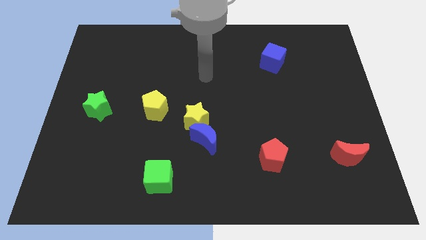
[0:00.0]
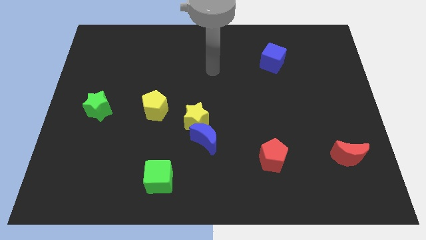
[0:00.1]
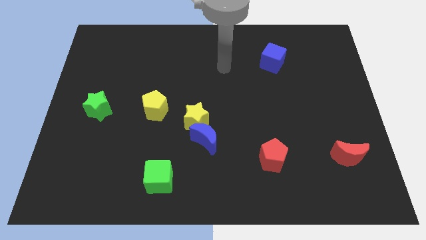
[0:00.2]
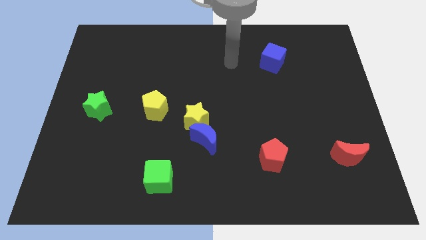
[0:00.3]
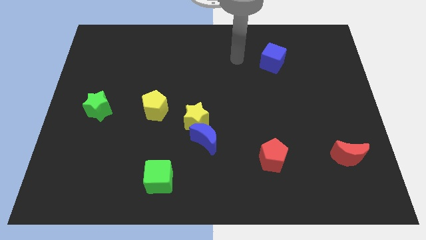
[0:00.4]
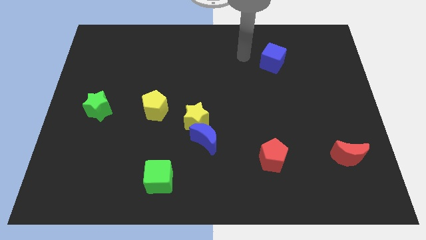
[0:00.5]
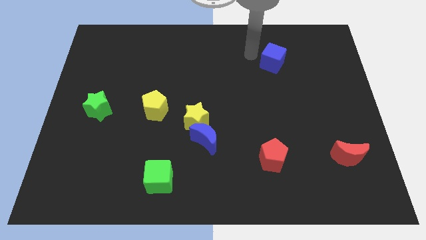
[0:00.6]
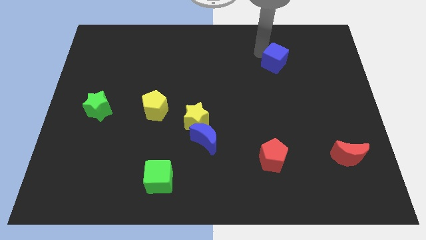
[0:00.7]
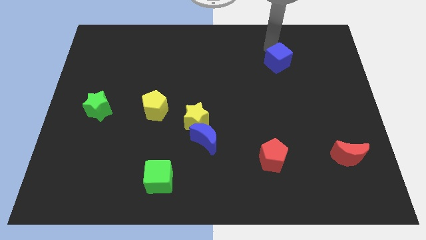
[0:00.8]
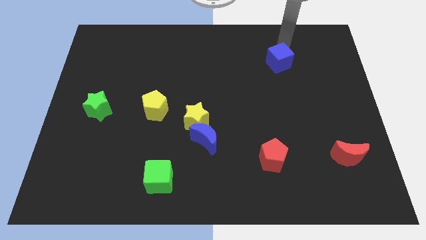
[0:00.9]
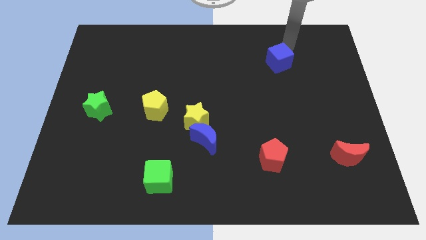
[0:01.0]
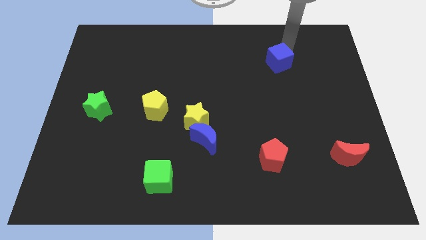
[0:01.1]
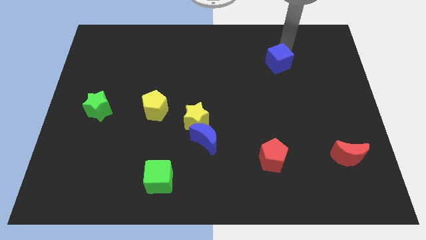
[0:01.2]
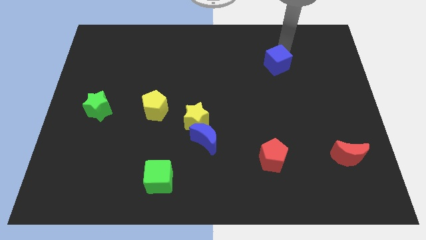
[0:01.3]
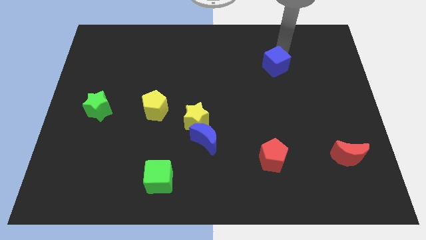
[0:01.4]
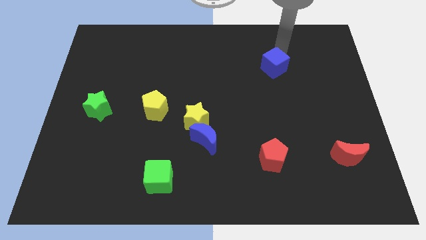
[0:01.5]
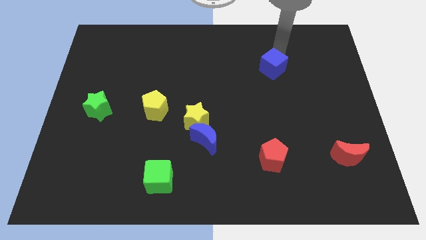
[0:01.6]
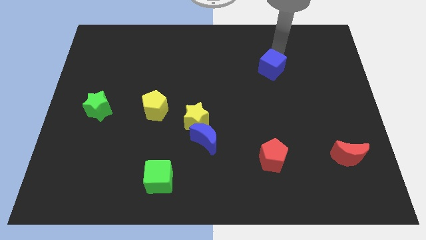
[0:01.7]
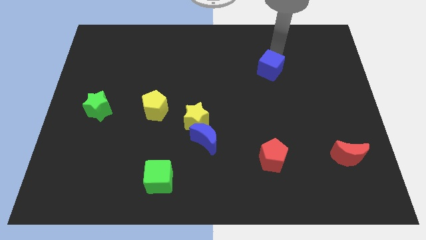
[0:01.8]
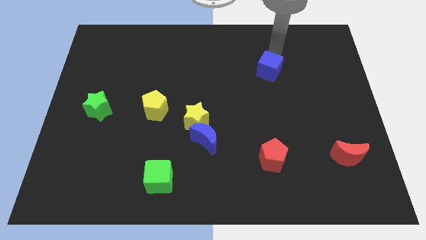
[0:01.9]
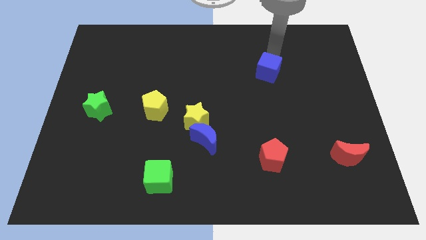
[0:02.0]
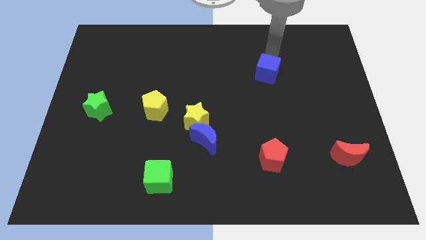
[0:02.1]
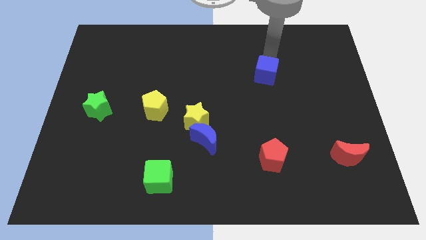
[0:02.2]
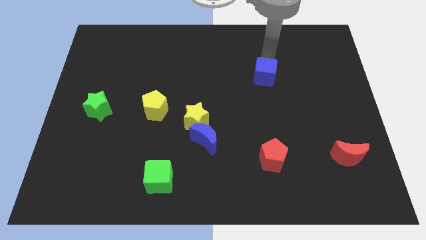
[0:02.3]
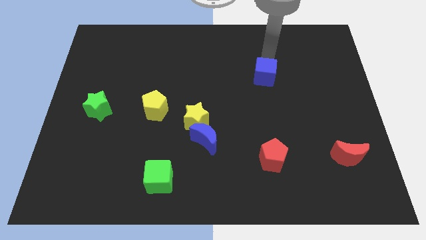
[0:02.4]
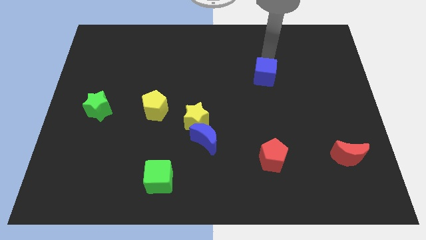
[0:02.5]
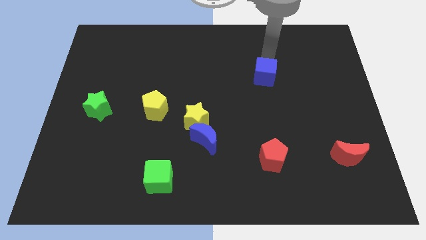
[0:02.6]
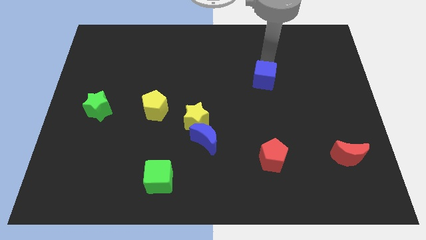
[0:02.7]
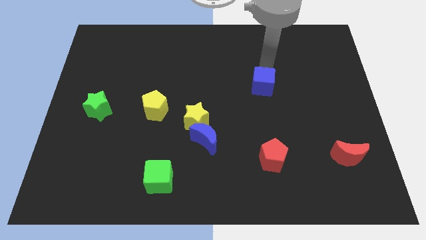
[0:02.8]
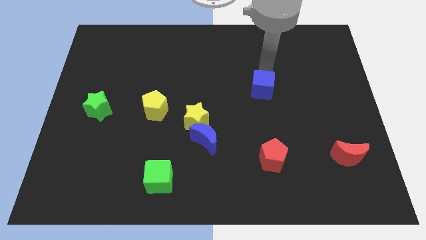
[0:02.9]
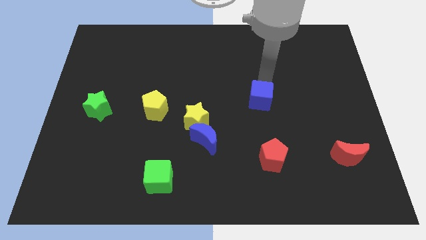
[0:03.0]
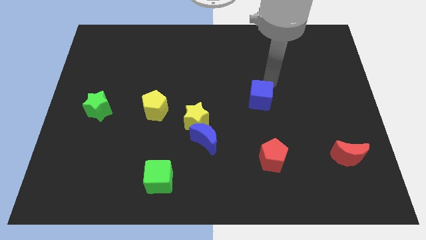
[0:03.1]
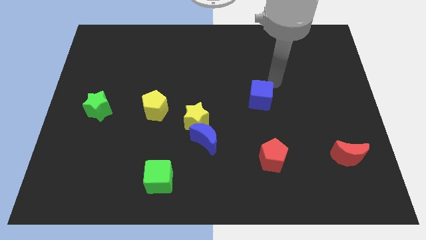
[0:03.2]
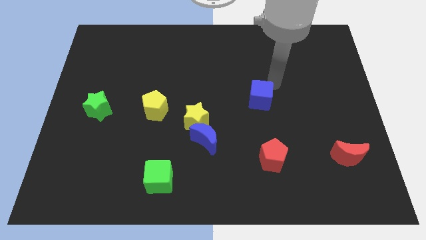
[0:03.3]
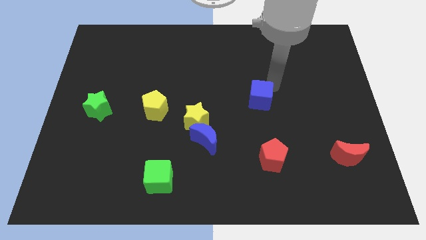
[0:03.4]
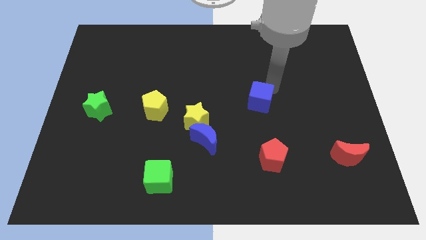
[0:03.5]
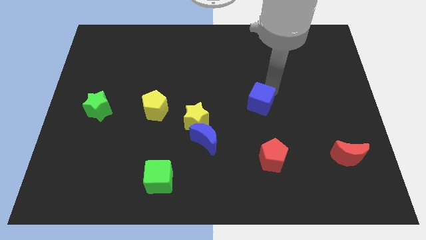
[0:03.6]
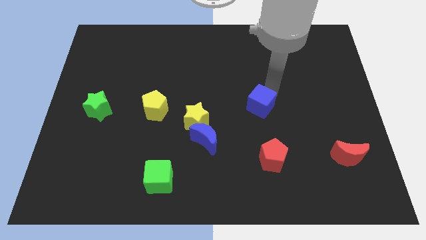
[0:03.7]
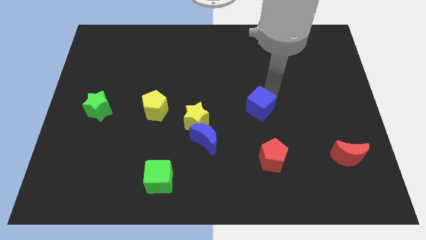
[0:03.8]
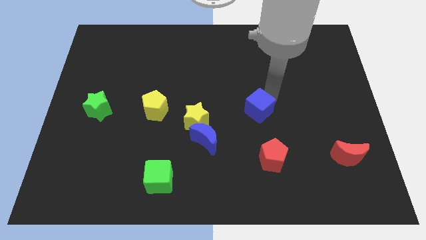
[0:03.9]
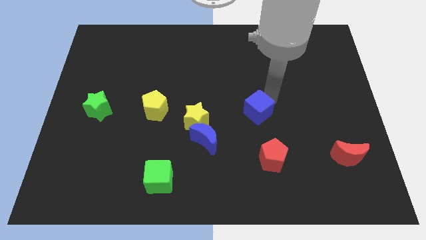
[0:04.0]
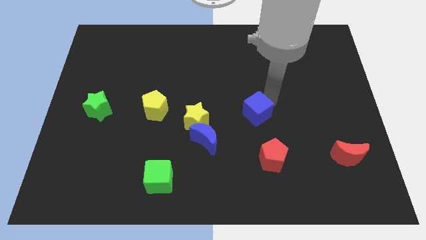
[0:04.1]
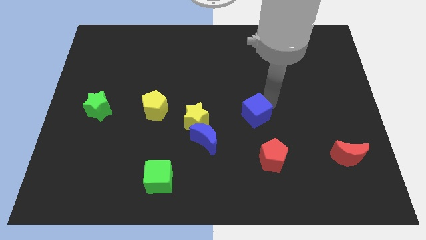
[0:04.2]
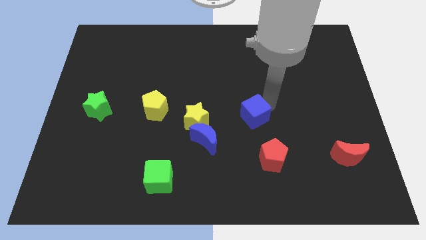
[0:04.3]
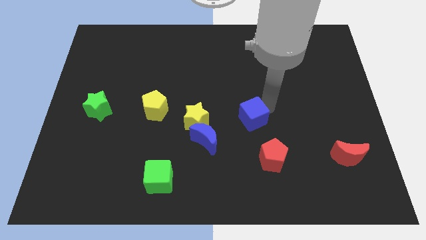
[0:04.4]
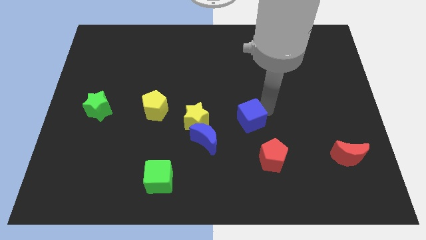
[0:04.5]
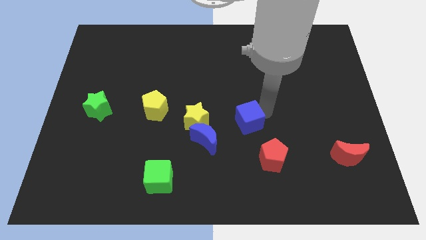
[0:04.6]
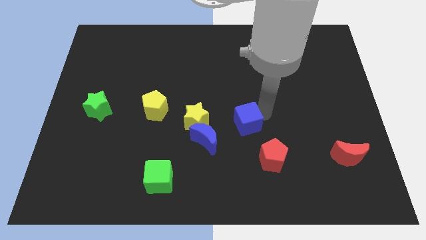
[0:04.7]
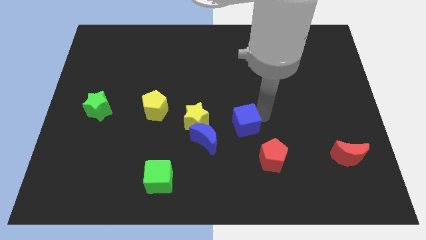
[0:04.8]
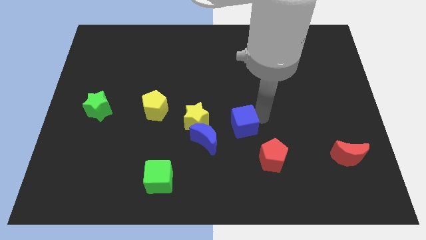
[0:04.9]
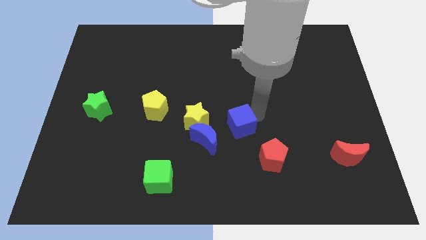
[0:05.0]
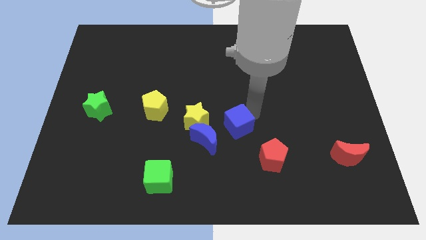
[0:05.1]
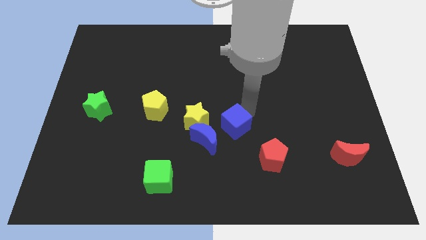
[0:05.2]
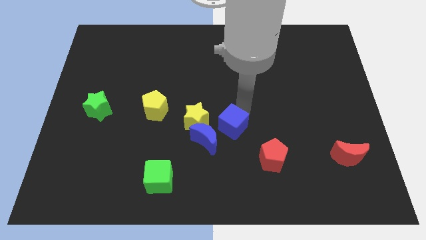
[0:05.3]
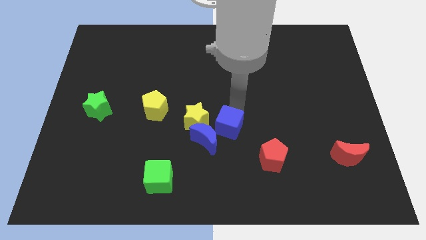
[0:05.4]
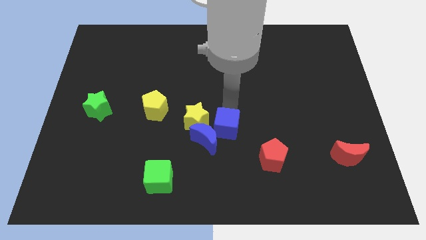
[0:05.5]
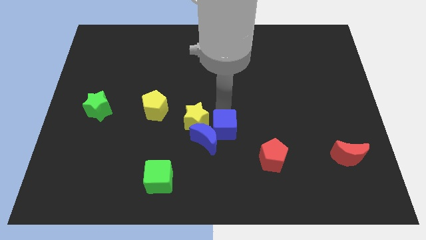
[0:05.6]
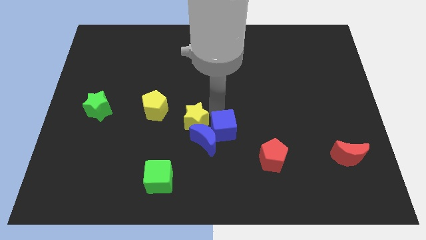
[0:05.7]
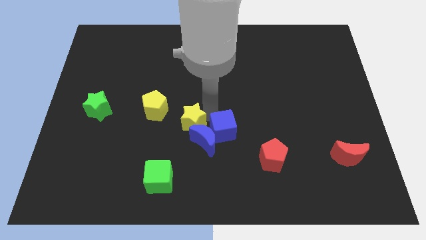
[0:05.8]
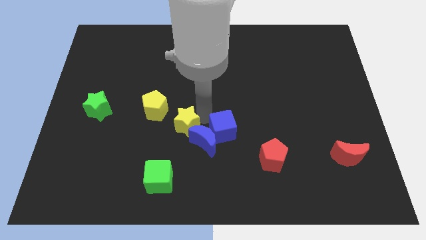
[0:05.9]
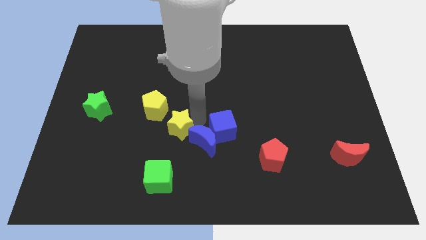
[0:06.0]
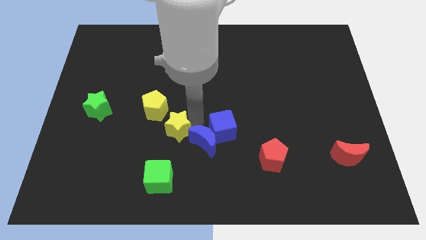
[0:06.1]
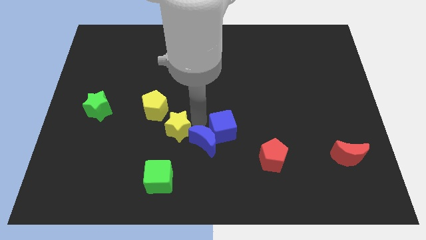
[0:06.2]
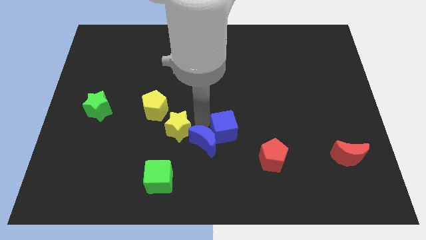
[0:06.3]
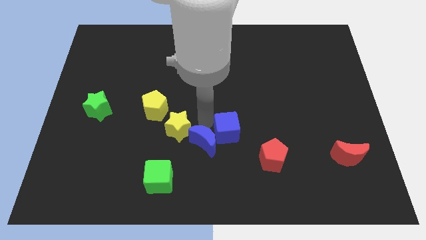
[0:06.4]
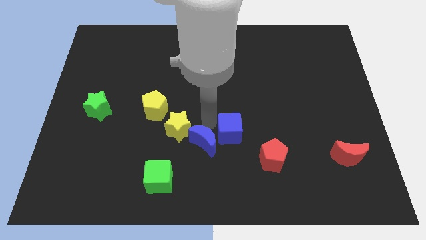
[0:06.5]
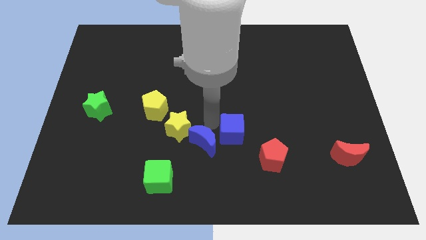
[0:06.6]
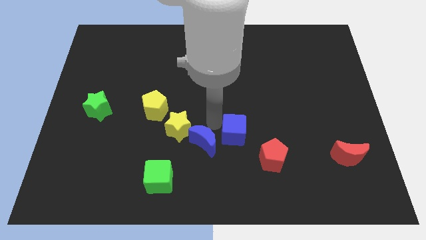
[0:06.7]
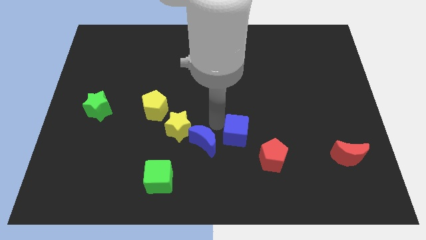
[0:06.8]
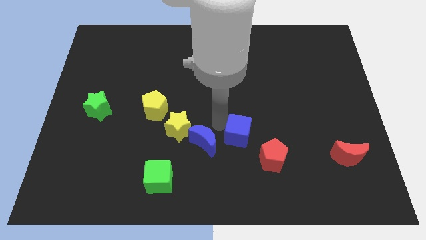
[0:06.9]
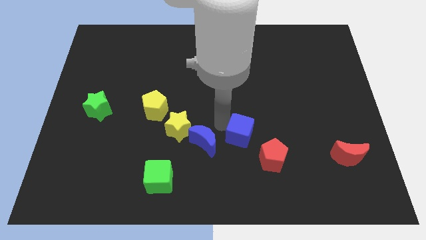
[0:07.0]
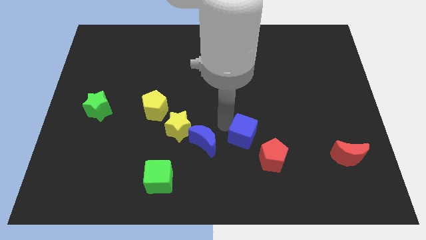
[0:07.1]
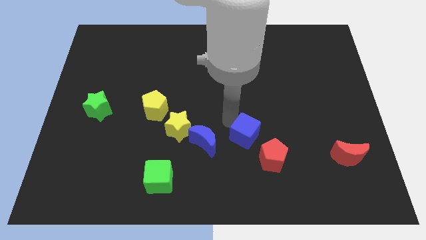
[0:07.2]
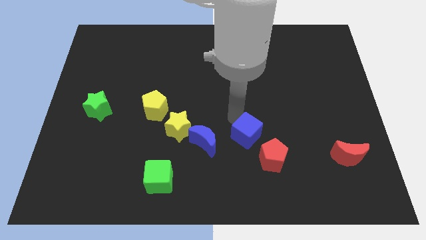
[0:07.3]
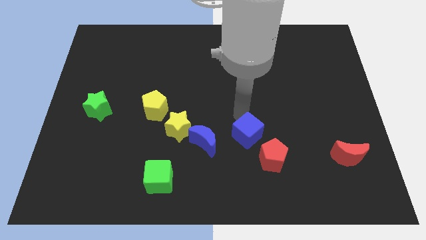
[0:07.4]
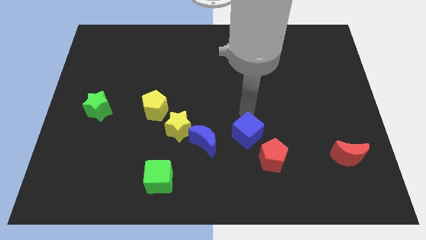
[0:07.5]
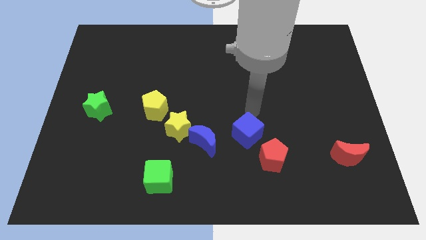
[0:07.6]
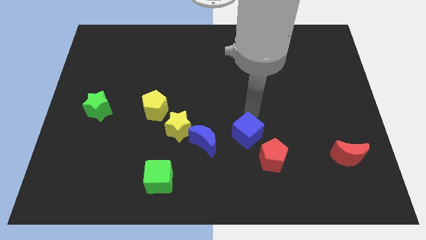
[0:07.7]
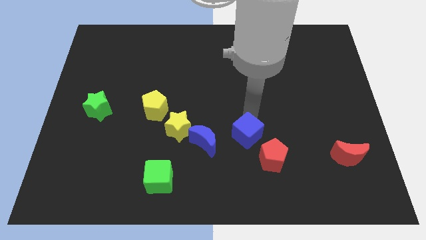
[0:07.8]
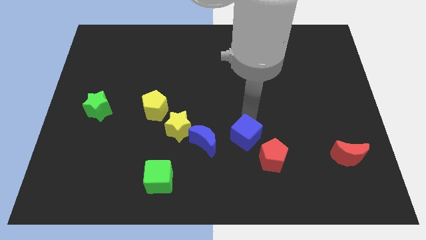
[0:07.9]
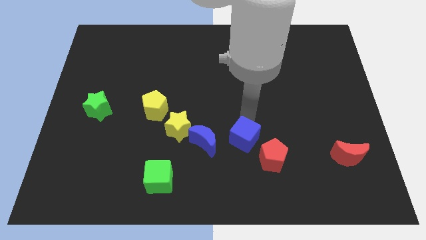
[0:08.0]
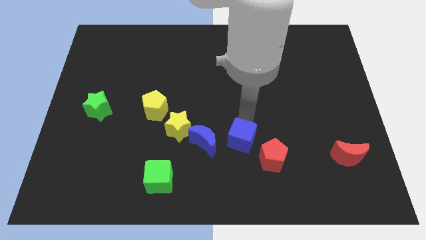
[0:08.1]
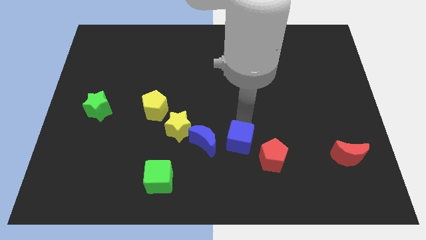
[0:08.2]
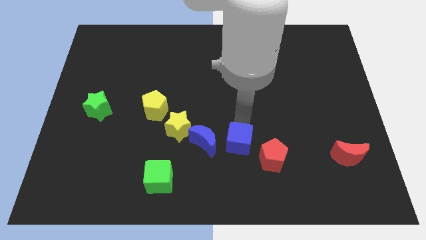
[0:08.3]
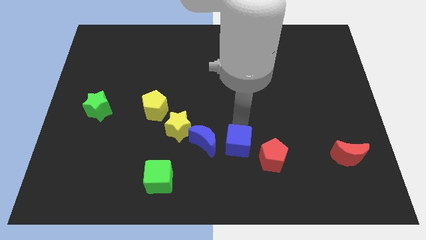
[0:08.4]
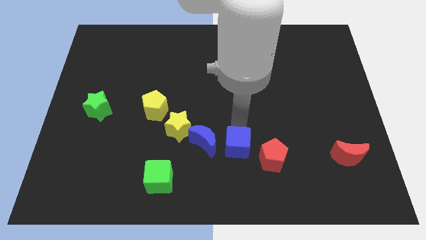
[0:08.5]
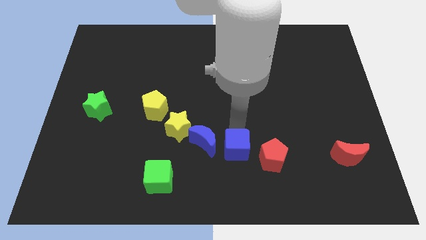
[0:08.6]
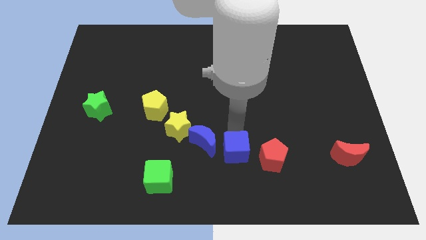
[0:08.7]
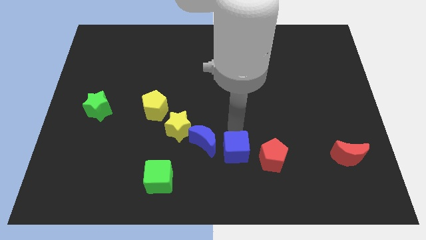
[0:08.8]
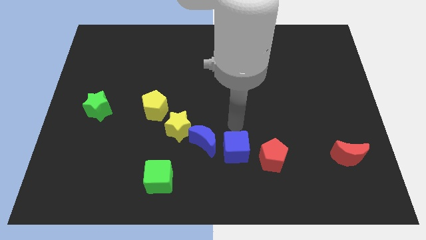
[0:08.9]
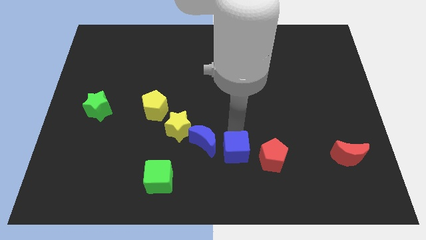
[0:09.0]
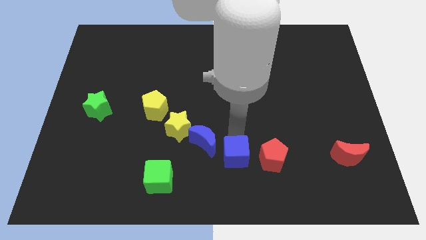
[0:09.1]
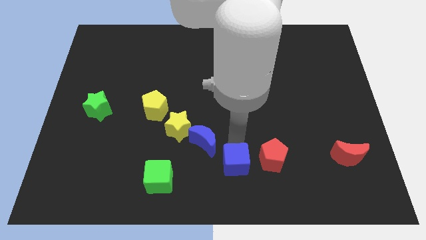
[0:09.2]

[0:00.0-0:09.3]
push the blue cube to the bottom side
